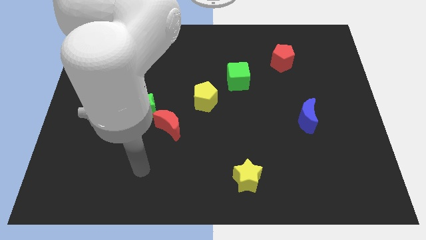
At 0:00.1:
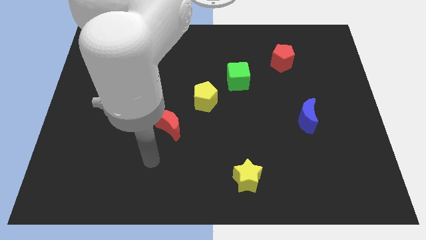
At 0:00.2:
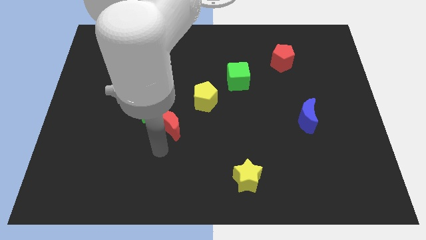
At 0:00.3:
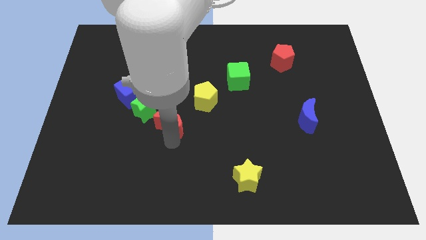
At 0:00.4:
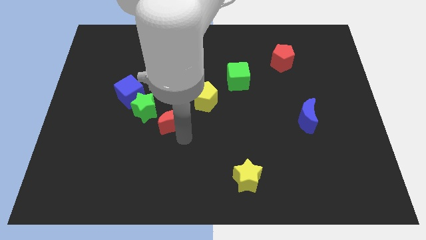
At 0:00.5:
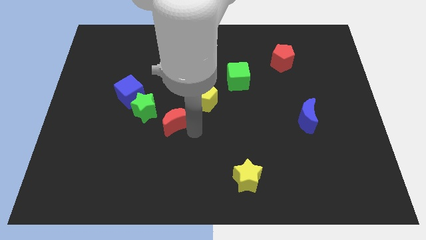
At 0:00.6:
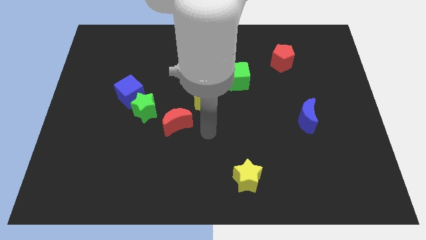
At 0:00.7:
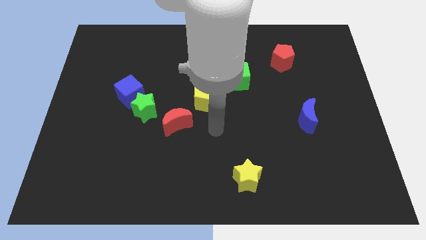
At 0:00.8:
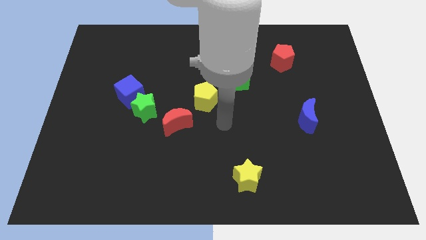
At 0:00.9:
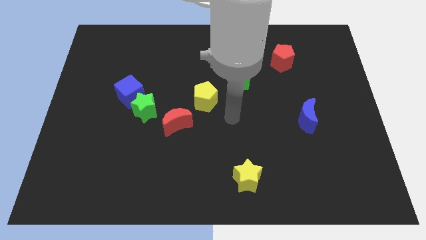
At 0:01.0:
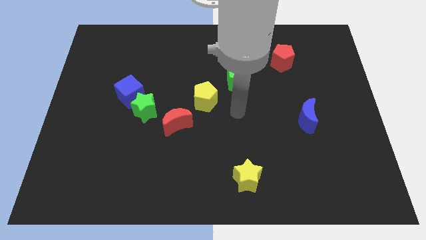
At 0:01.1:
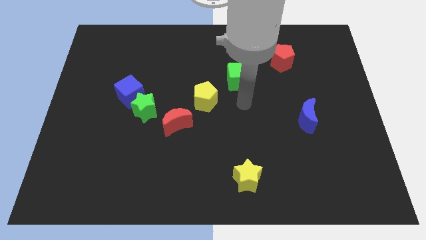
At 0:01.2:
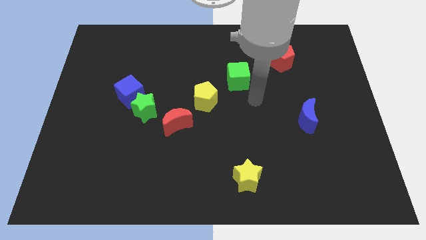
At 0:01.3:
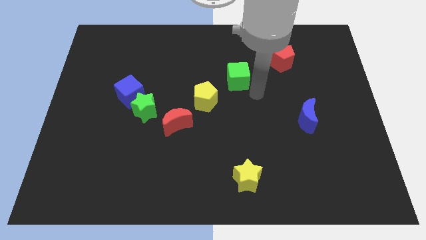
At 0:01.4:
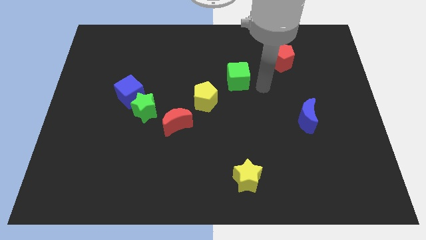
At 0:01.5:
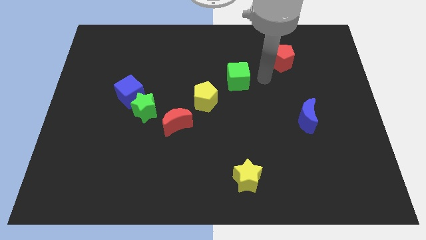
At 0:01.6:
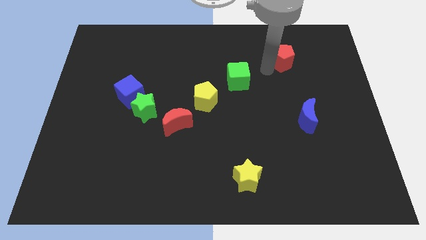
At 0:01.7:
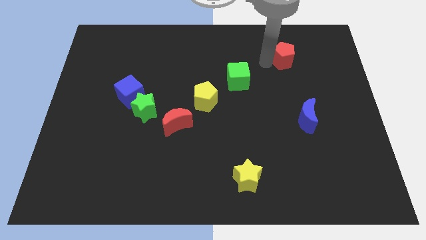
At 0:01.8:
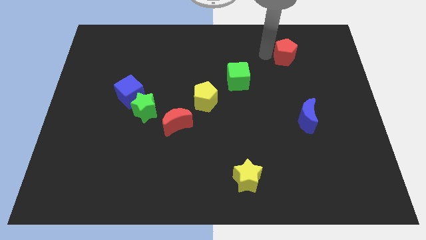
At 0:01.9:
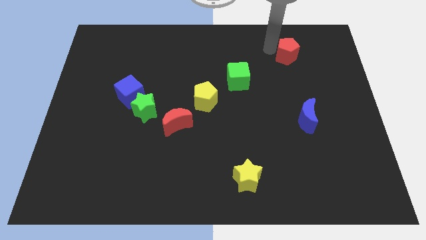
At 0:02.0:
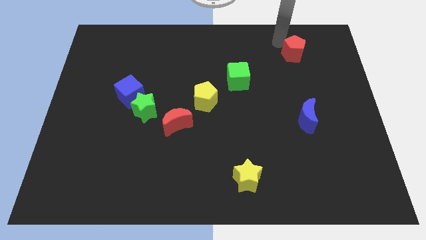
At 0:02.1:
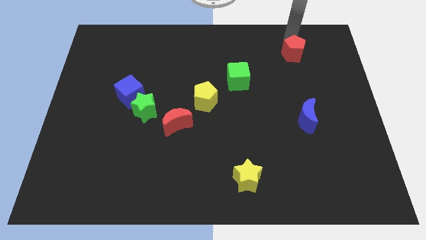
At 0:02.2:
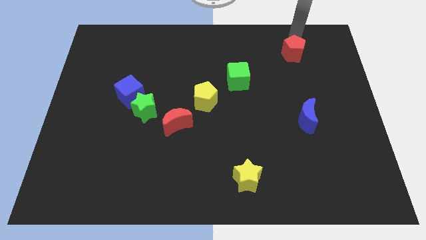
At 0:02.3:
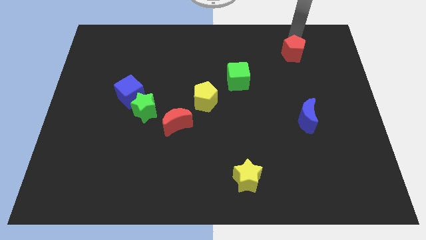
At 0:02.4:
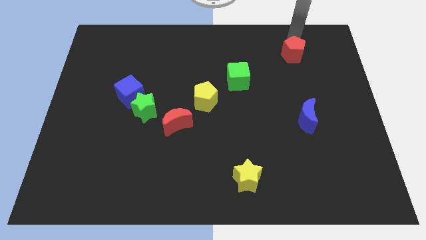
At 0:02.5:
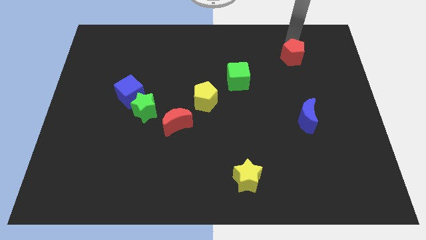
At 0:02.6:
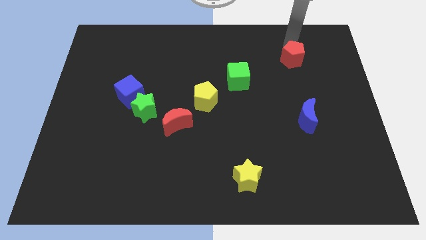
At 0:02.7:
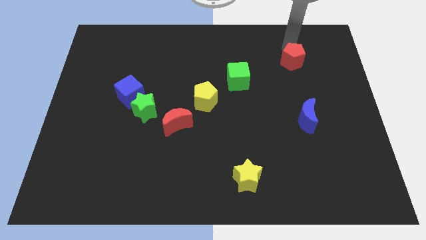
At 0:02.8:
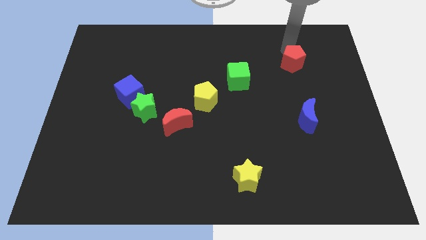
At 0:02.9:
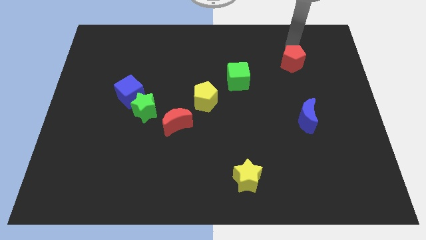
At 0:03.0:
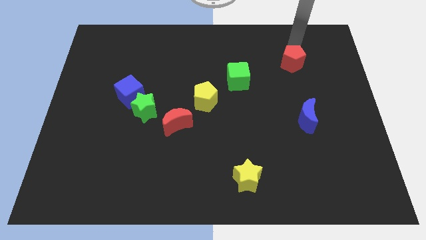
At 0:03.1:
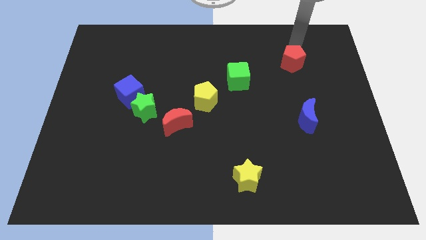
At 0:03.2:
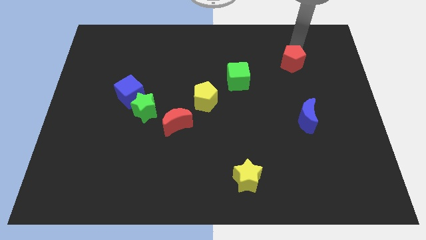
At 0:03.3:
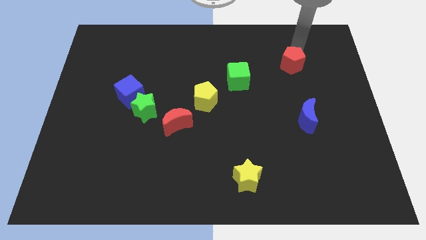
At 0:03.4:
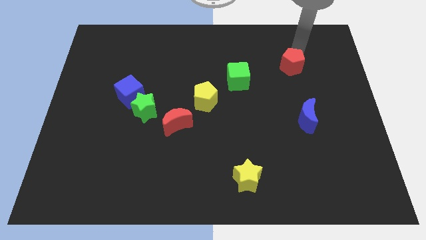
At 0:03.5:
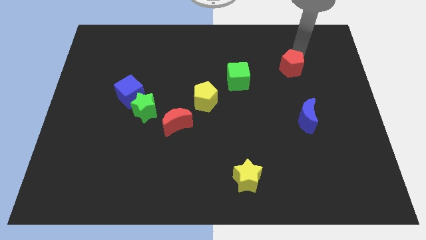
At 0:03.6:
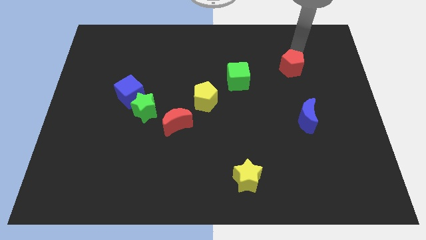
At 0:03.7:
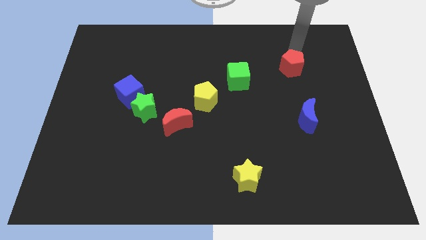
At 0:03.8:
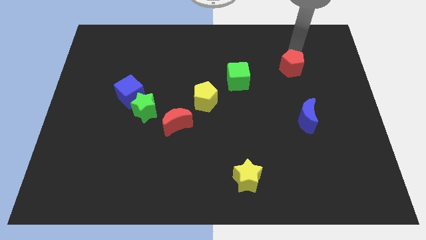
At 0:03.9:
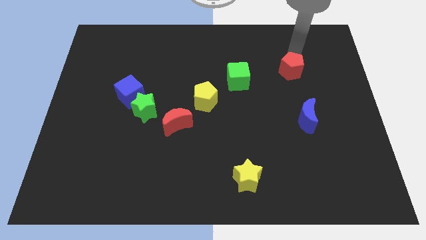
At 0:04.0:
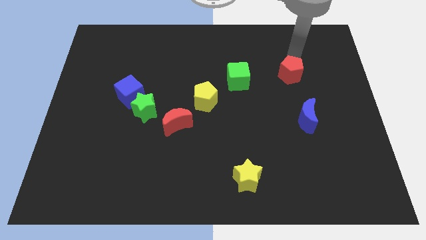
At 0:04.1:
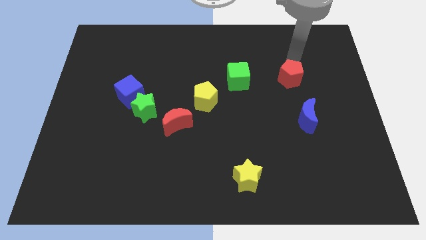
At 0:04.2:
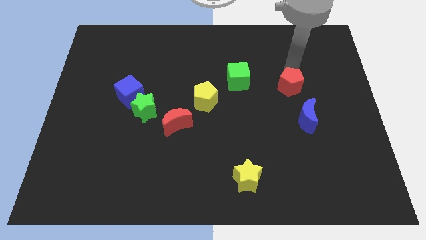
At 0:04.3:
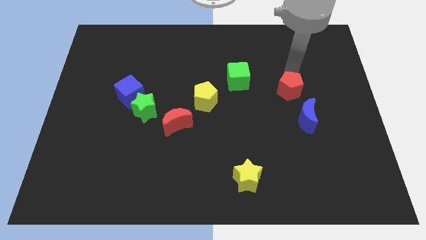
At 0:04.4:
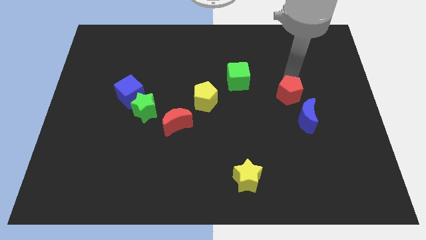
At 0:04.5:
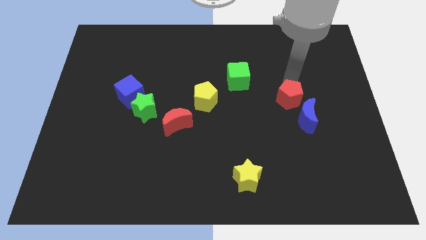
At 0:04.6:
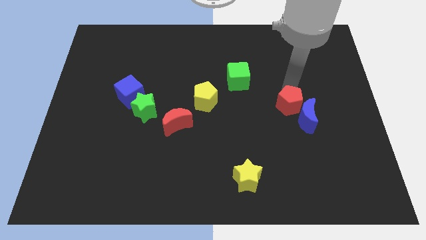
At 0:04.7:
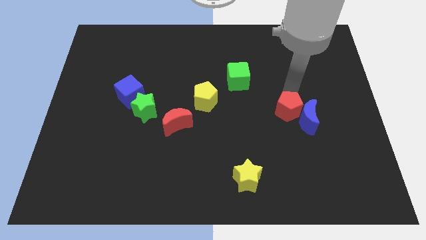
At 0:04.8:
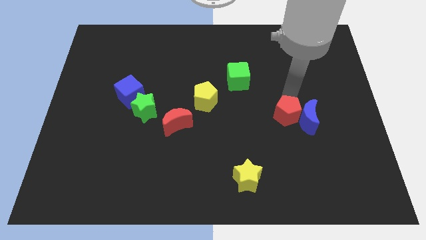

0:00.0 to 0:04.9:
slide the red pentagon diagonally down and to the left of the blue moon

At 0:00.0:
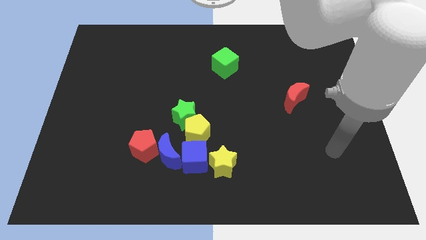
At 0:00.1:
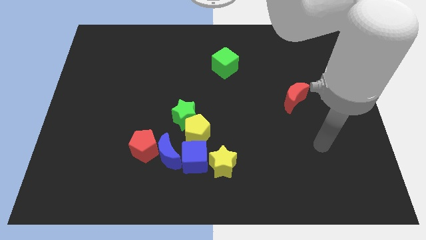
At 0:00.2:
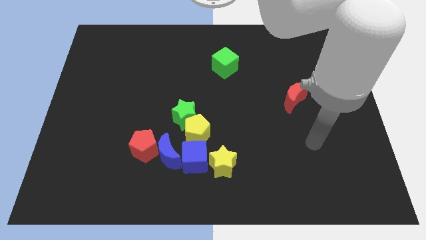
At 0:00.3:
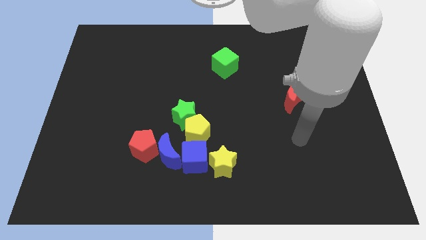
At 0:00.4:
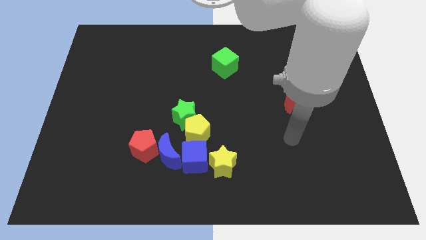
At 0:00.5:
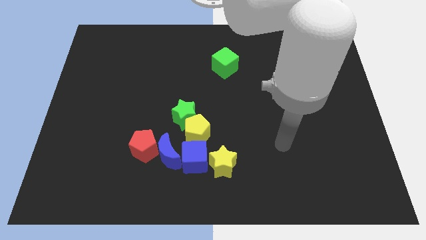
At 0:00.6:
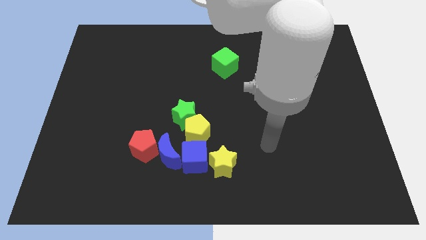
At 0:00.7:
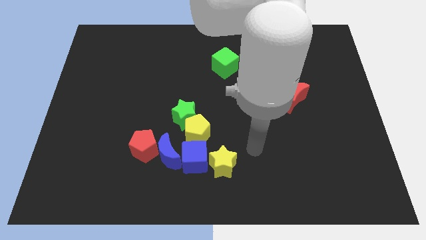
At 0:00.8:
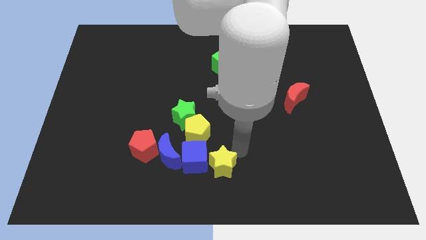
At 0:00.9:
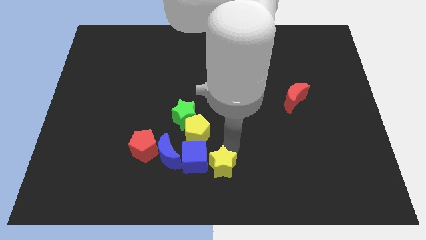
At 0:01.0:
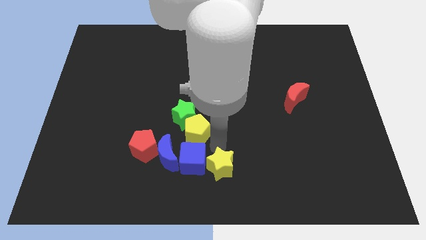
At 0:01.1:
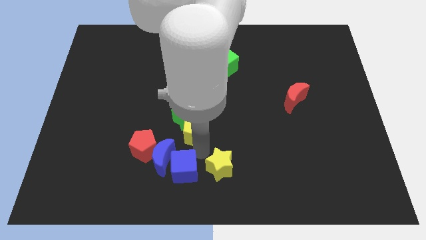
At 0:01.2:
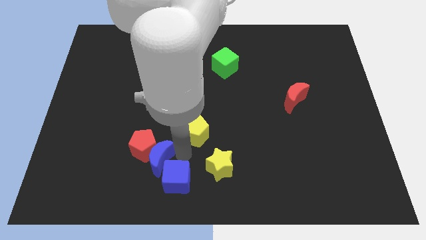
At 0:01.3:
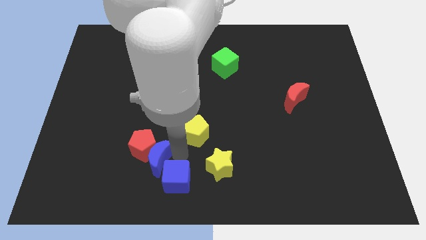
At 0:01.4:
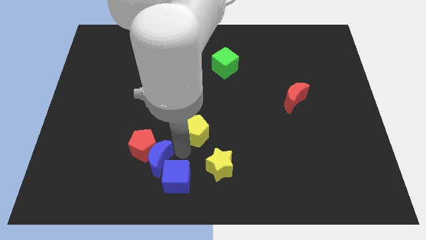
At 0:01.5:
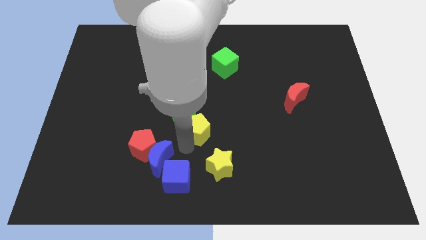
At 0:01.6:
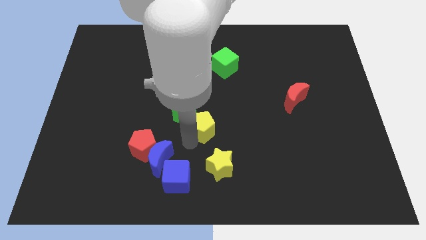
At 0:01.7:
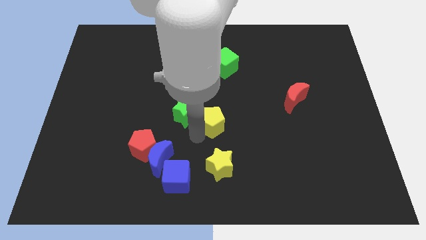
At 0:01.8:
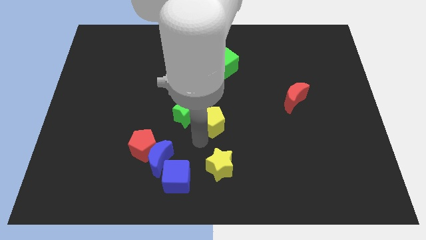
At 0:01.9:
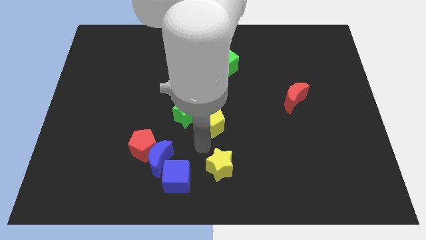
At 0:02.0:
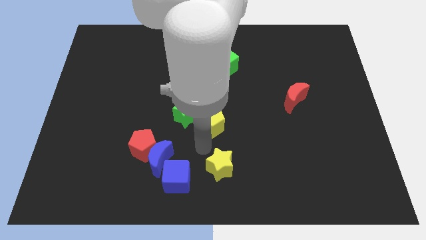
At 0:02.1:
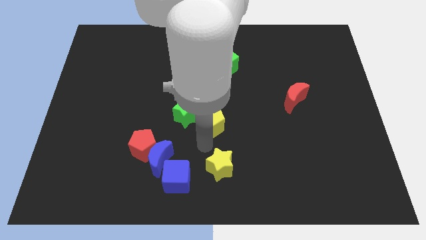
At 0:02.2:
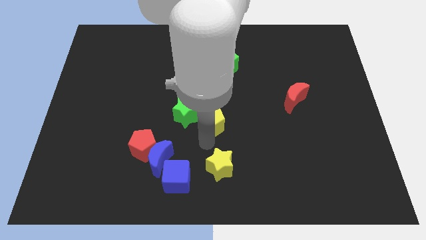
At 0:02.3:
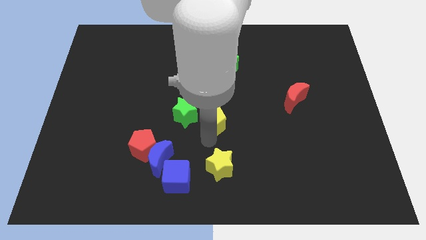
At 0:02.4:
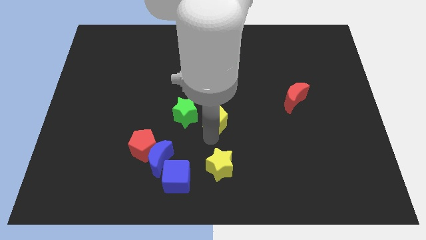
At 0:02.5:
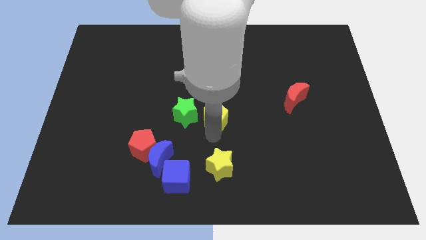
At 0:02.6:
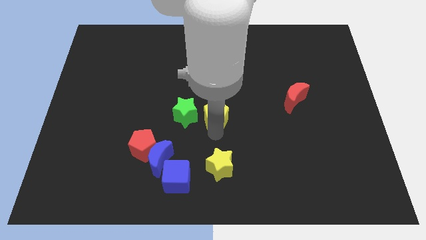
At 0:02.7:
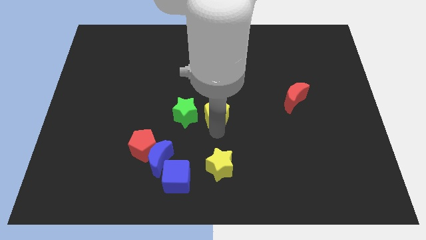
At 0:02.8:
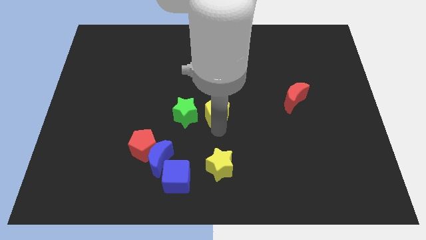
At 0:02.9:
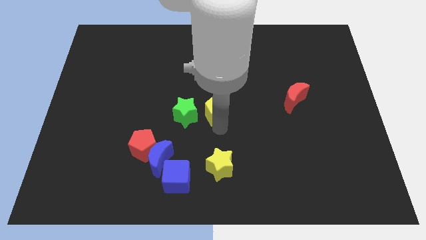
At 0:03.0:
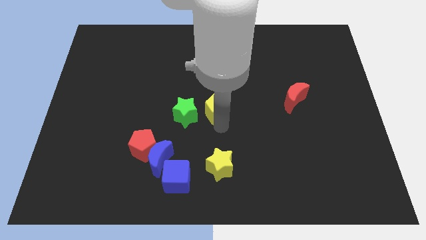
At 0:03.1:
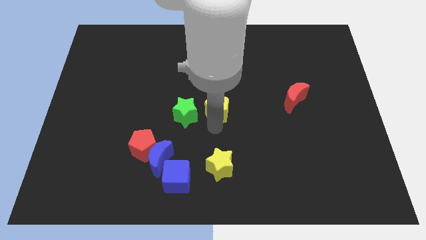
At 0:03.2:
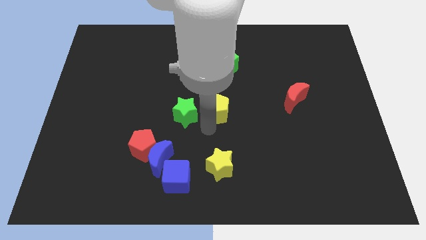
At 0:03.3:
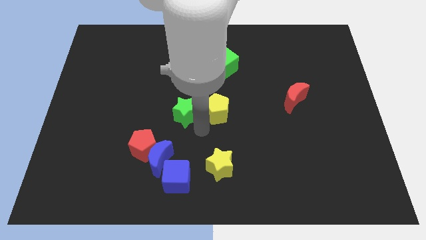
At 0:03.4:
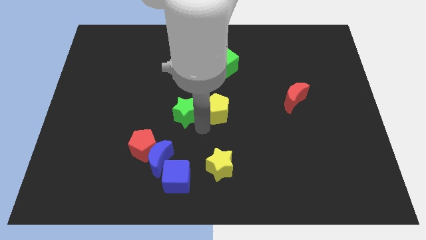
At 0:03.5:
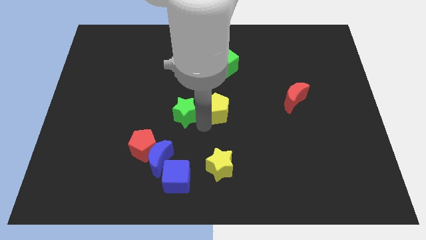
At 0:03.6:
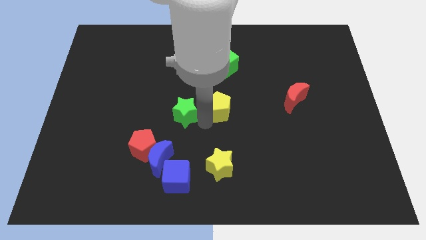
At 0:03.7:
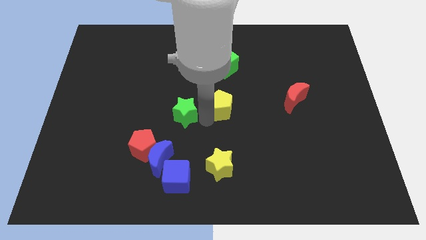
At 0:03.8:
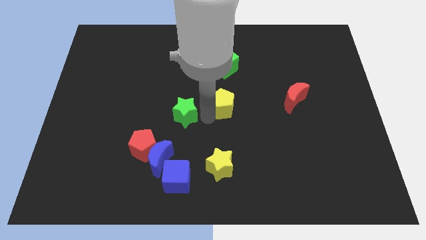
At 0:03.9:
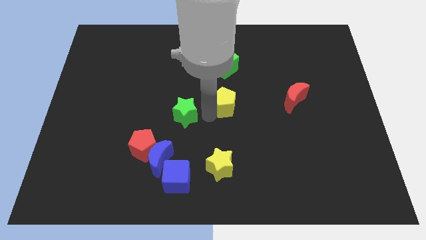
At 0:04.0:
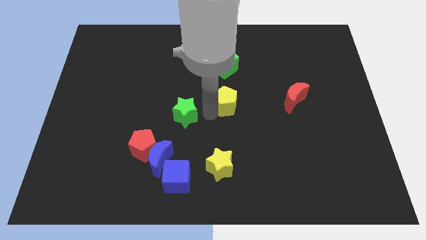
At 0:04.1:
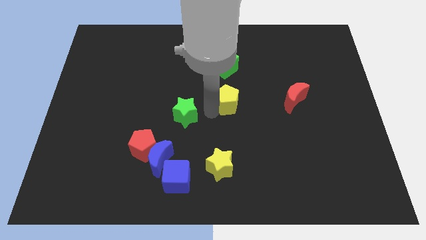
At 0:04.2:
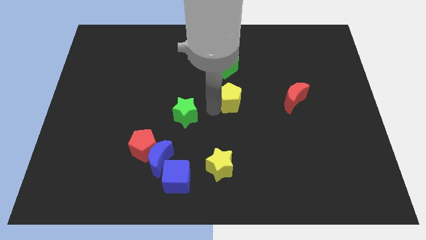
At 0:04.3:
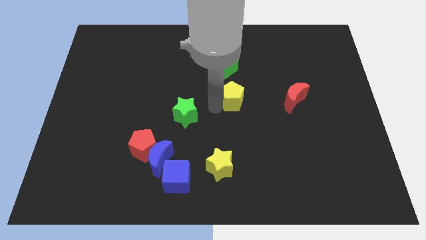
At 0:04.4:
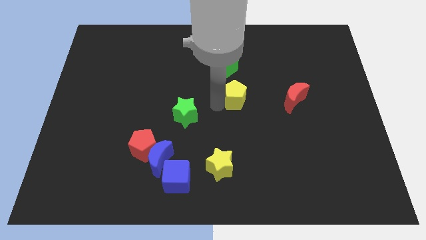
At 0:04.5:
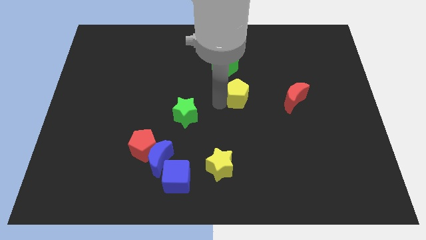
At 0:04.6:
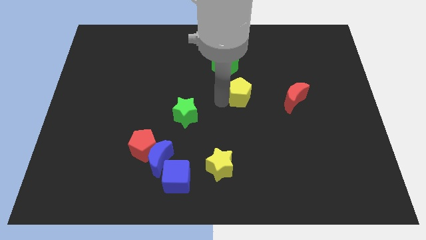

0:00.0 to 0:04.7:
put the yellow pentagon to the bottom right of the green cube
